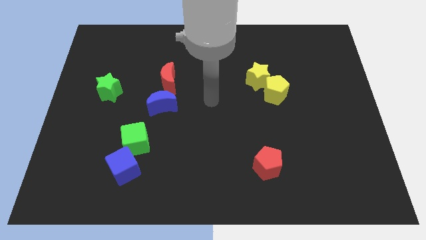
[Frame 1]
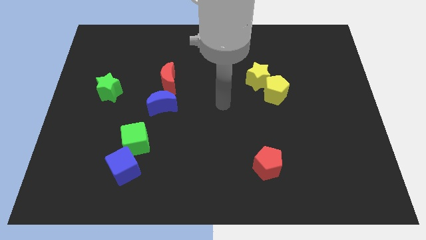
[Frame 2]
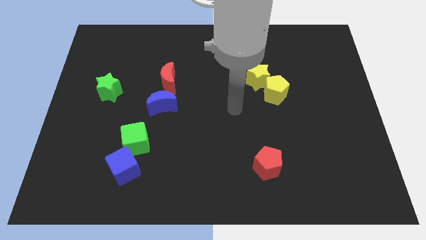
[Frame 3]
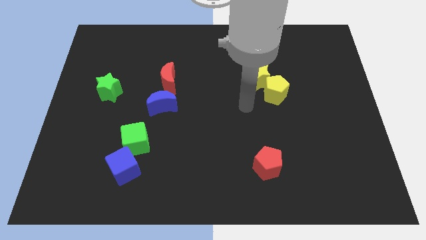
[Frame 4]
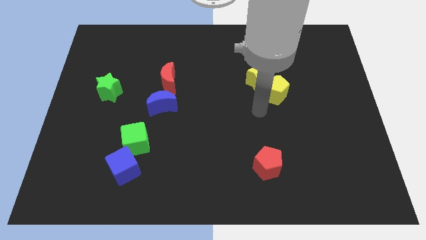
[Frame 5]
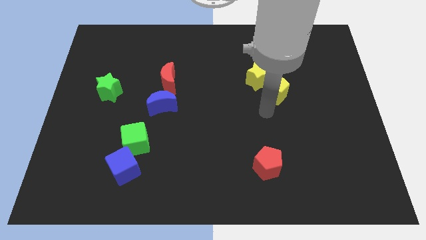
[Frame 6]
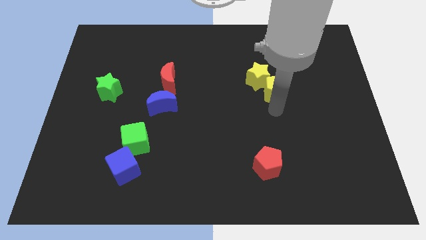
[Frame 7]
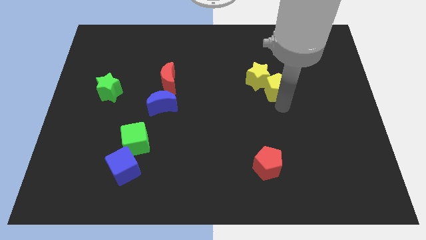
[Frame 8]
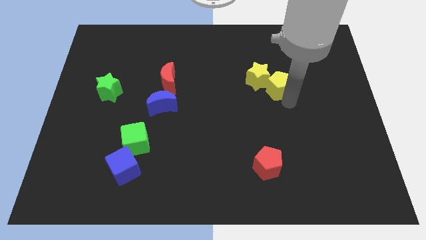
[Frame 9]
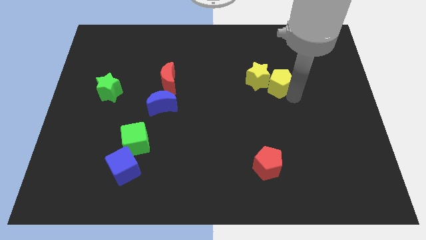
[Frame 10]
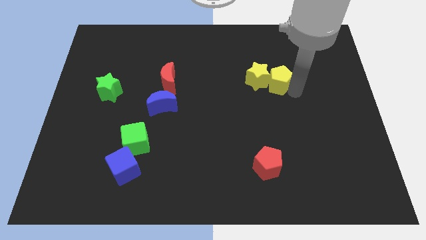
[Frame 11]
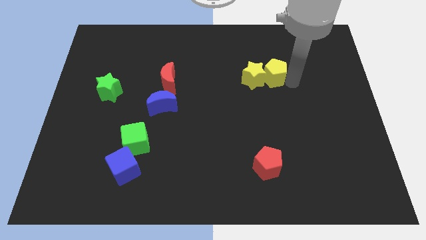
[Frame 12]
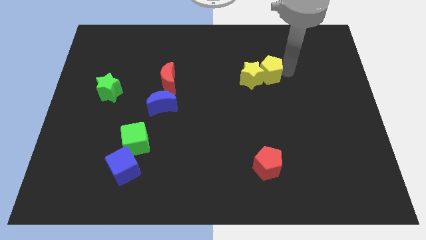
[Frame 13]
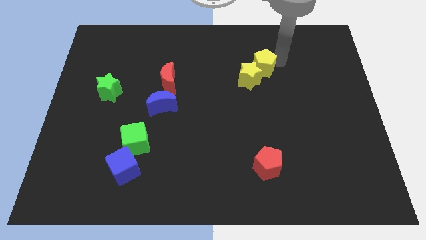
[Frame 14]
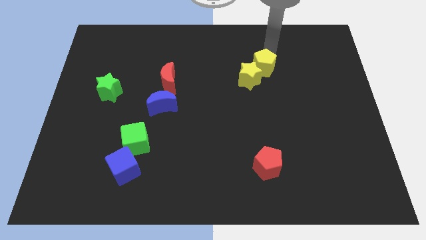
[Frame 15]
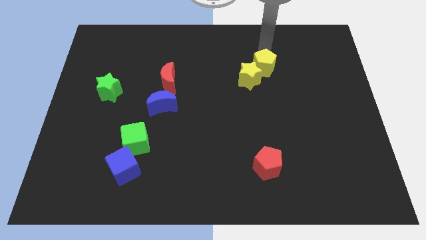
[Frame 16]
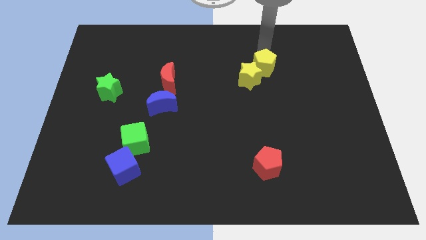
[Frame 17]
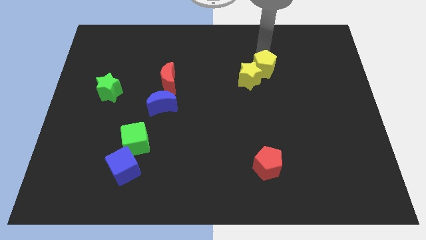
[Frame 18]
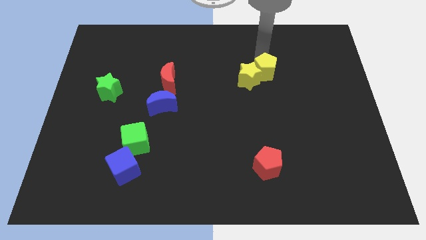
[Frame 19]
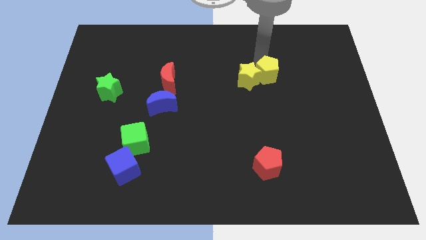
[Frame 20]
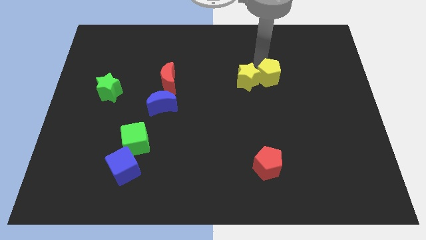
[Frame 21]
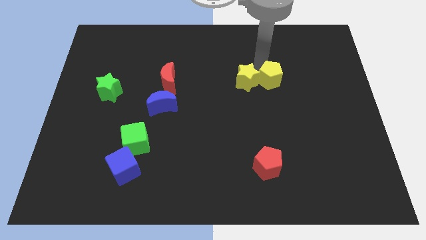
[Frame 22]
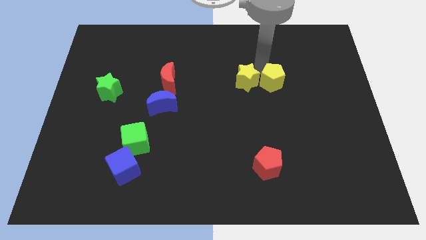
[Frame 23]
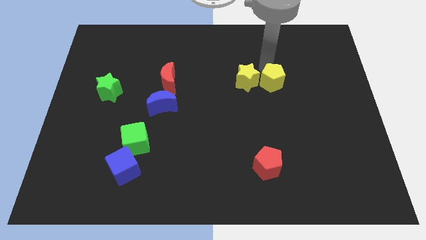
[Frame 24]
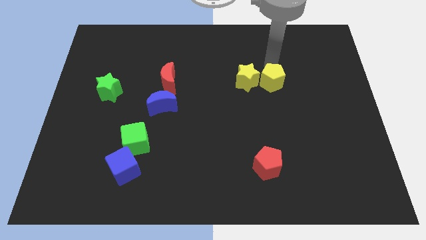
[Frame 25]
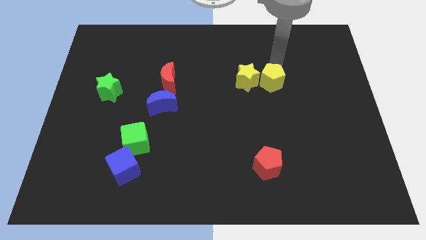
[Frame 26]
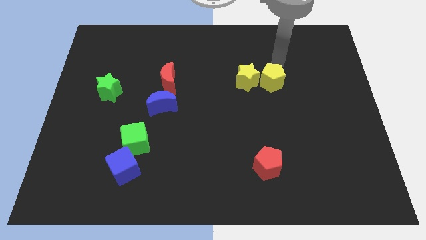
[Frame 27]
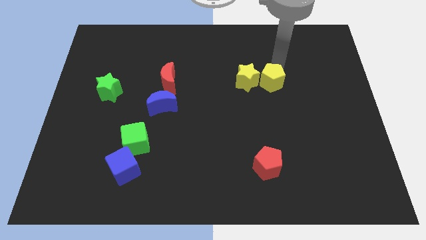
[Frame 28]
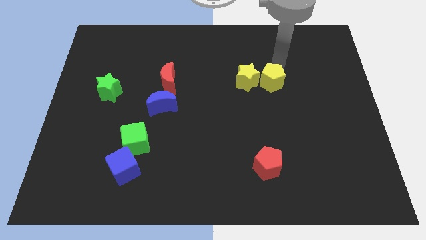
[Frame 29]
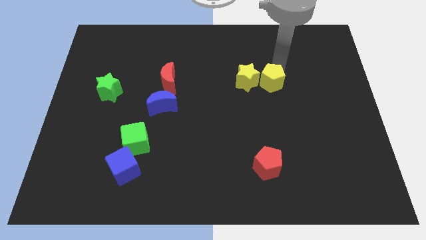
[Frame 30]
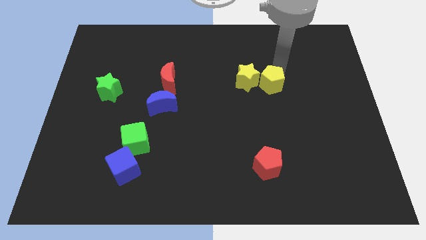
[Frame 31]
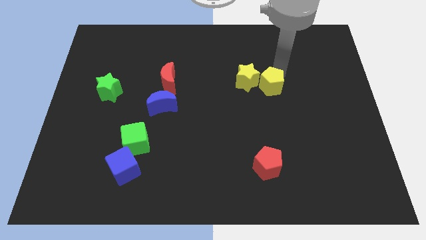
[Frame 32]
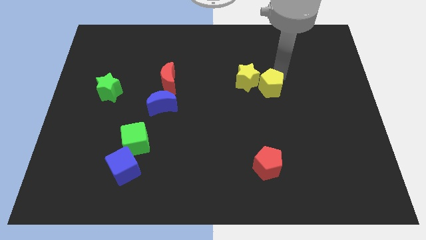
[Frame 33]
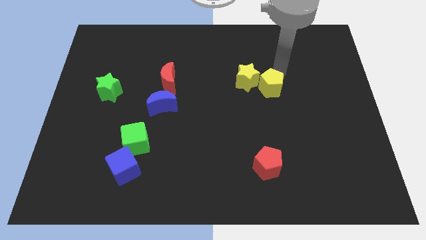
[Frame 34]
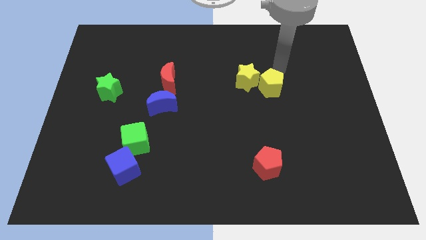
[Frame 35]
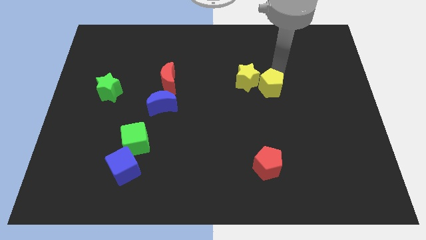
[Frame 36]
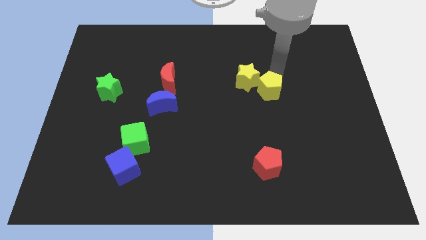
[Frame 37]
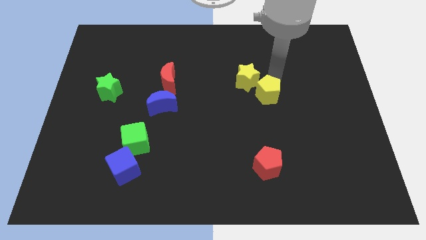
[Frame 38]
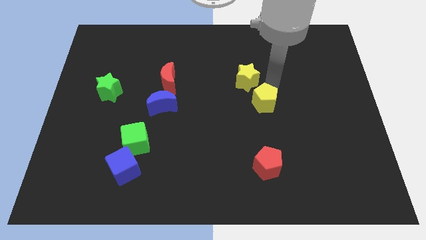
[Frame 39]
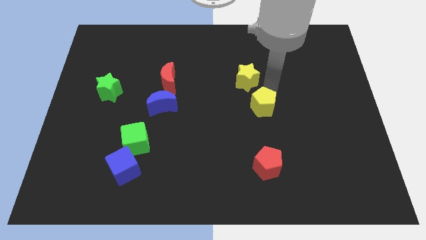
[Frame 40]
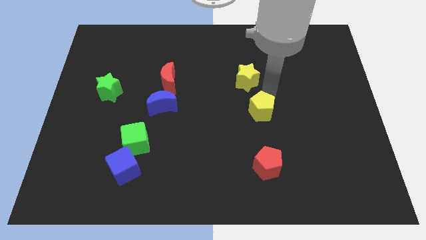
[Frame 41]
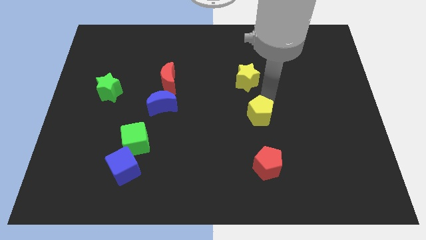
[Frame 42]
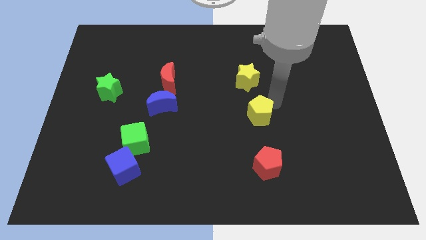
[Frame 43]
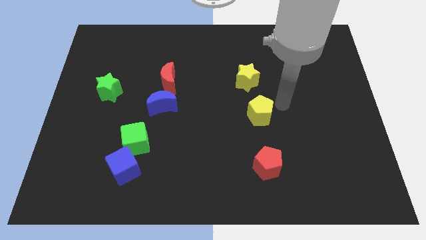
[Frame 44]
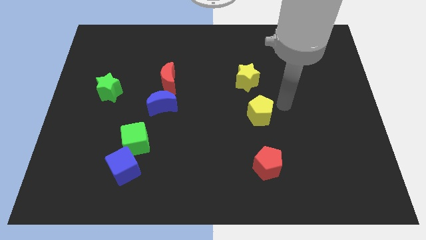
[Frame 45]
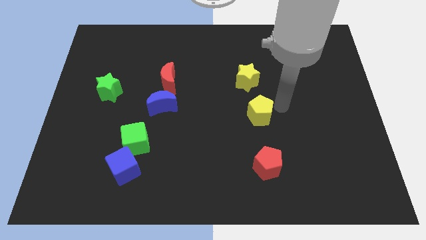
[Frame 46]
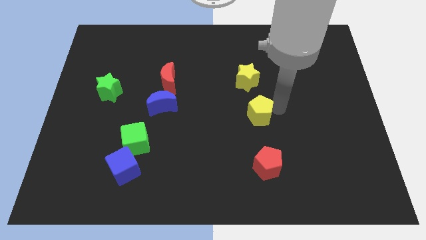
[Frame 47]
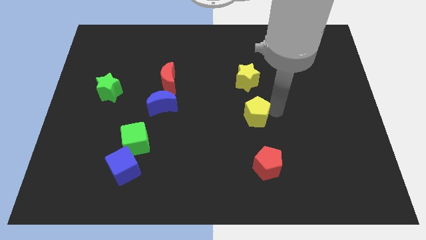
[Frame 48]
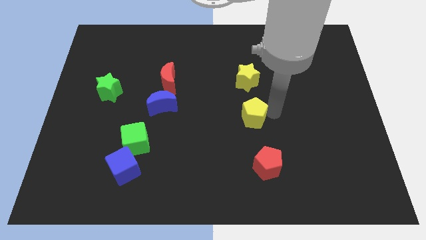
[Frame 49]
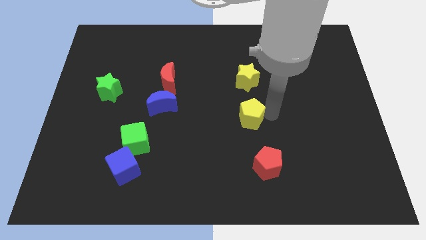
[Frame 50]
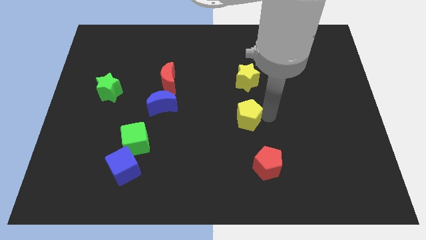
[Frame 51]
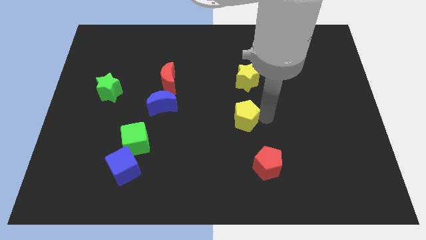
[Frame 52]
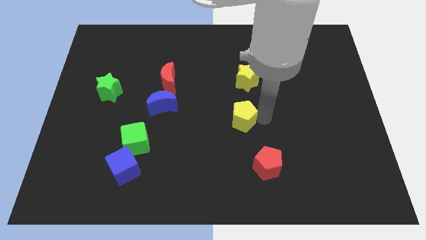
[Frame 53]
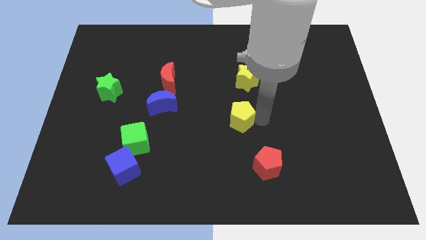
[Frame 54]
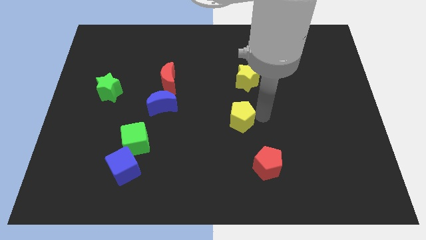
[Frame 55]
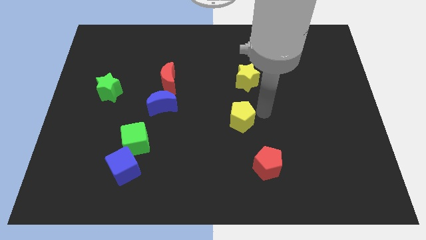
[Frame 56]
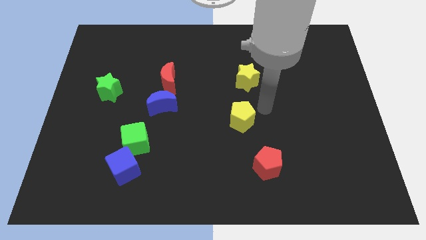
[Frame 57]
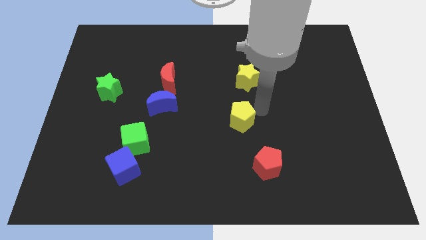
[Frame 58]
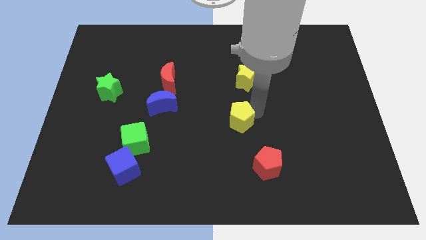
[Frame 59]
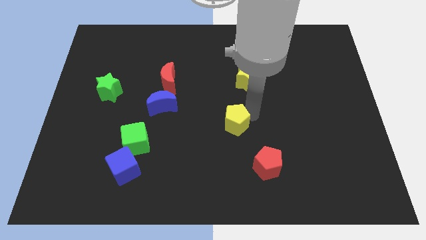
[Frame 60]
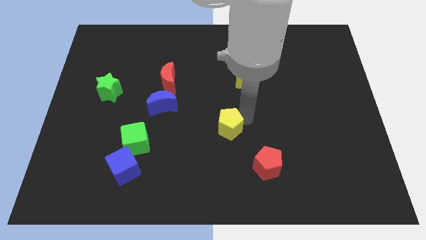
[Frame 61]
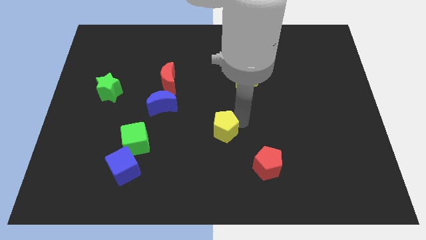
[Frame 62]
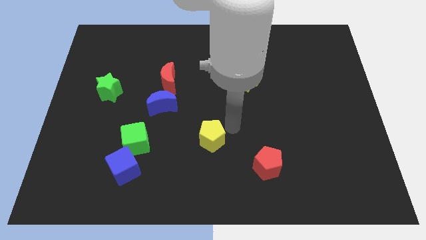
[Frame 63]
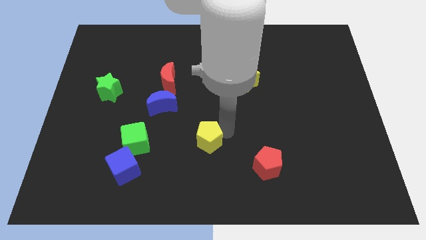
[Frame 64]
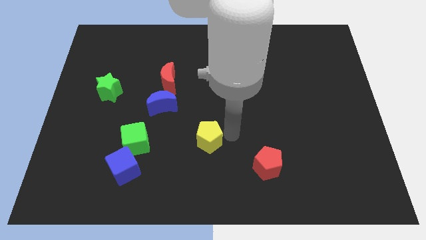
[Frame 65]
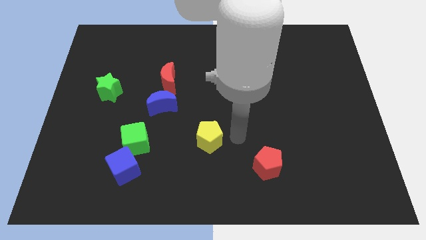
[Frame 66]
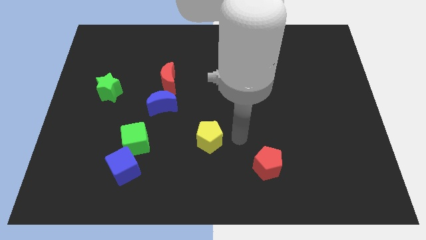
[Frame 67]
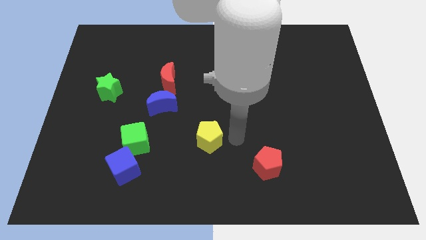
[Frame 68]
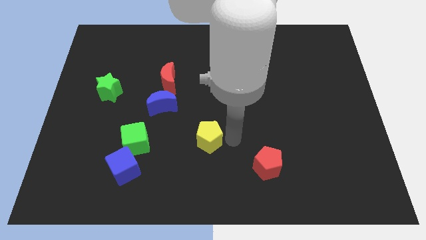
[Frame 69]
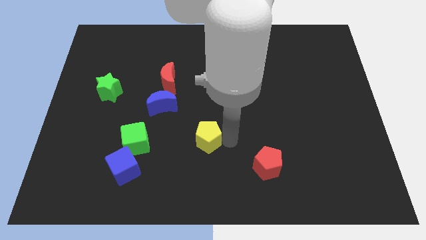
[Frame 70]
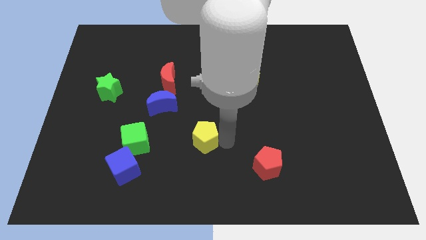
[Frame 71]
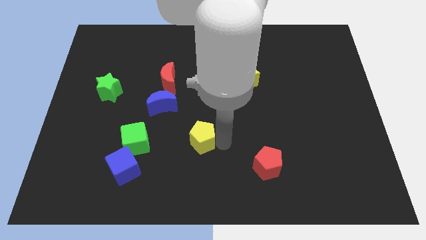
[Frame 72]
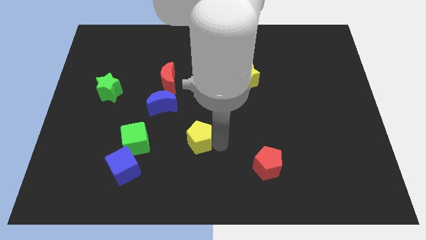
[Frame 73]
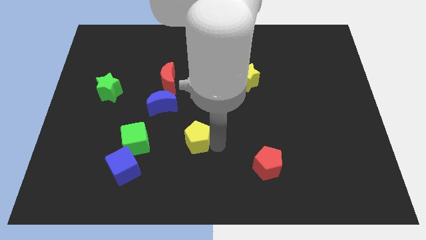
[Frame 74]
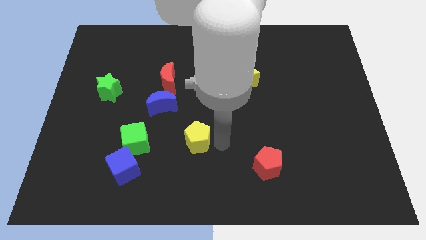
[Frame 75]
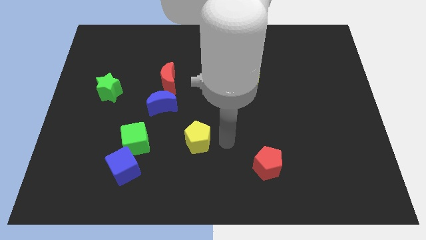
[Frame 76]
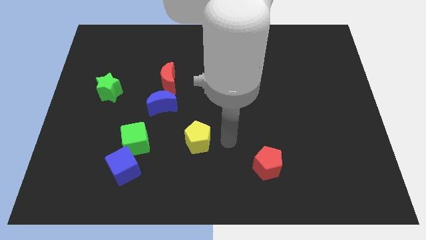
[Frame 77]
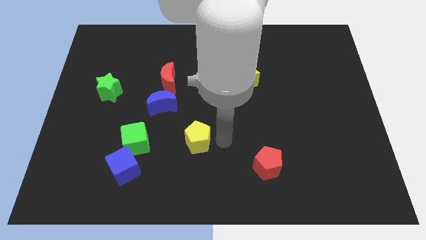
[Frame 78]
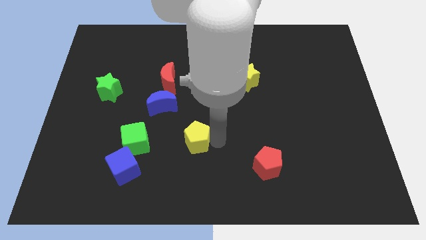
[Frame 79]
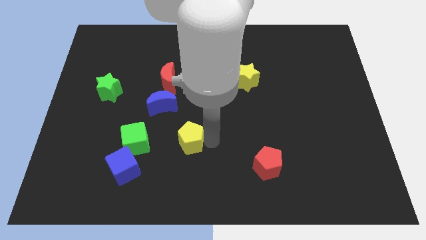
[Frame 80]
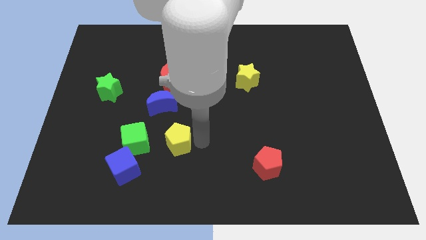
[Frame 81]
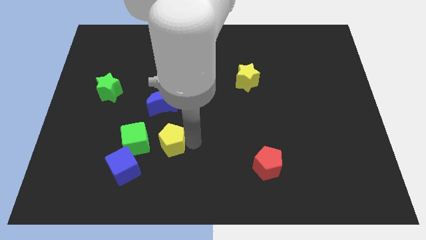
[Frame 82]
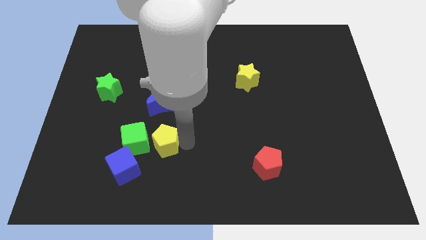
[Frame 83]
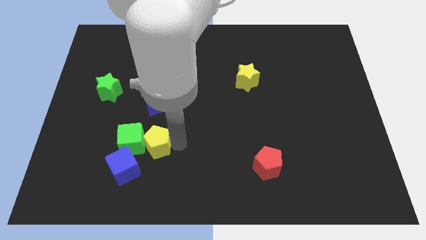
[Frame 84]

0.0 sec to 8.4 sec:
push the yellow pentagon to the green cube
